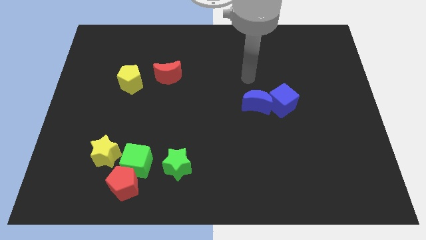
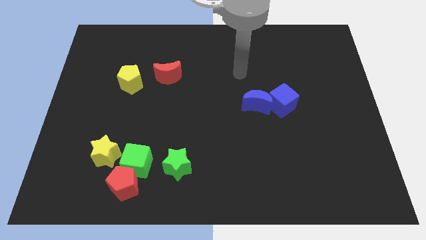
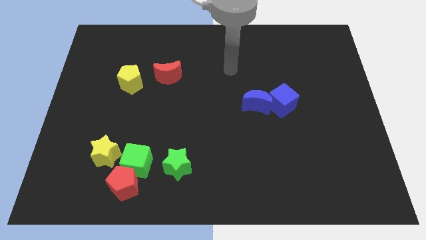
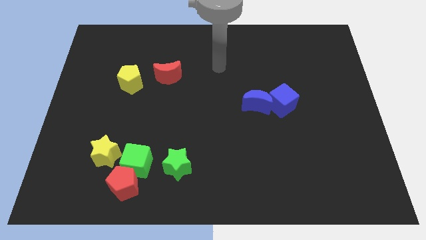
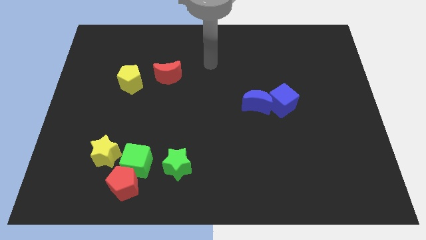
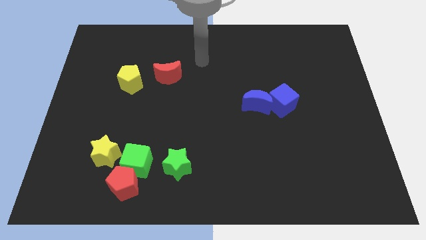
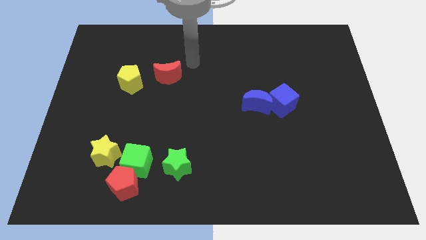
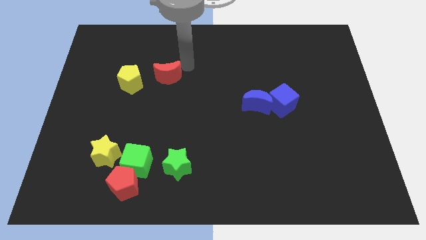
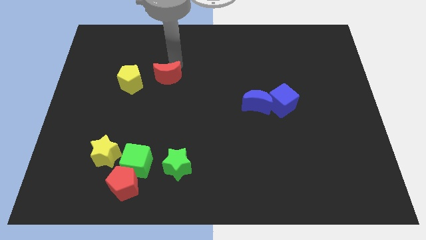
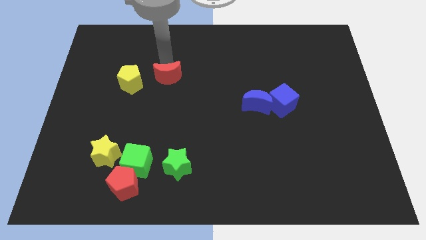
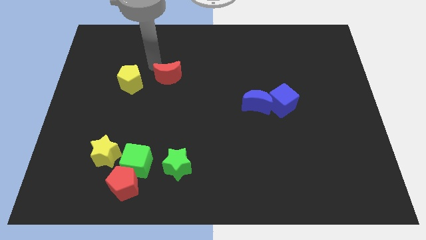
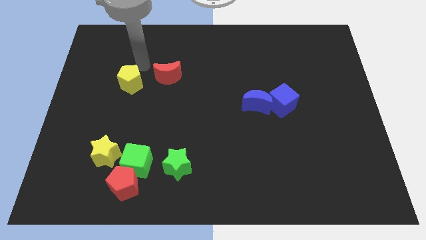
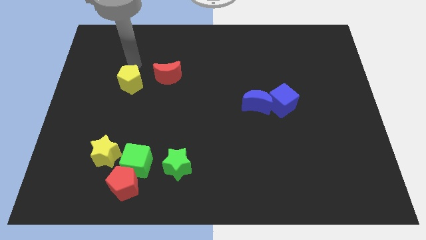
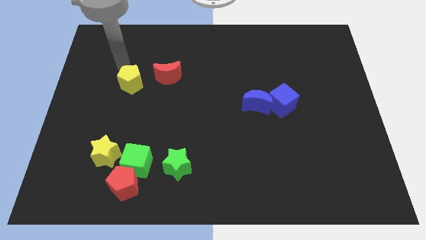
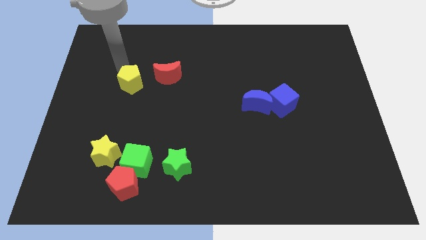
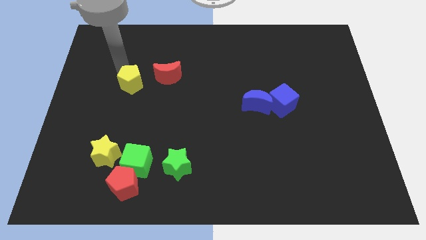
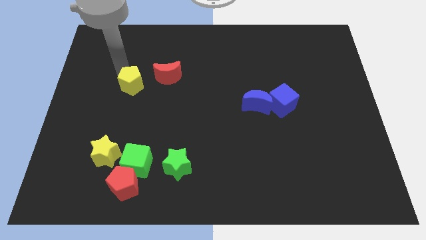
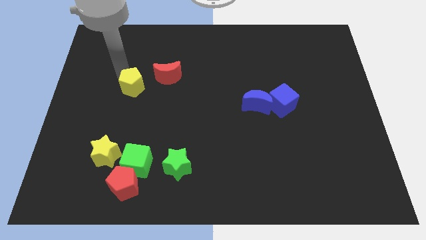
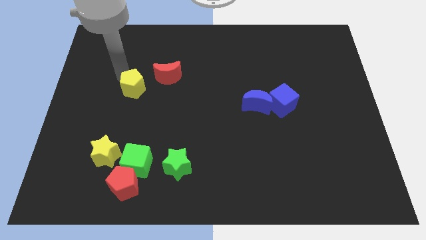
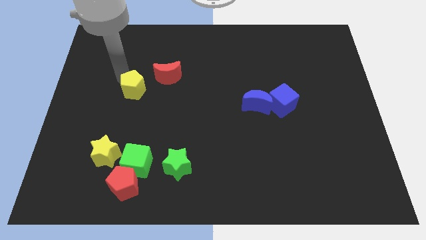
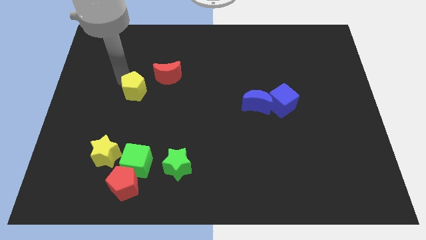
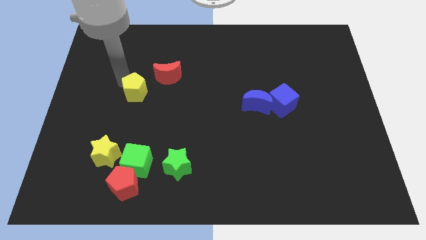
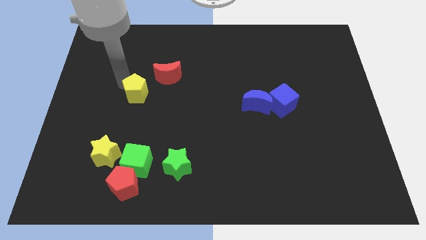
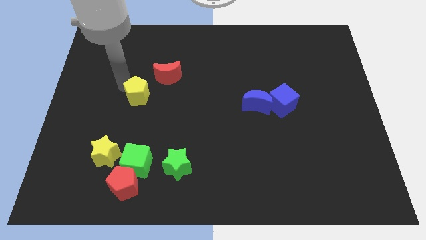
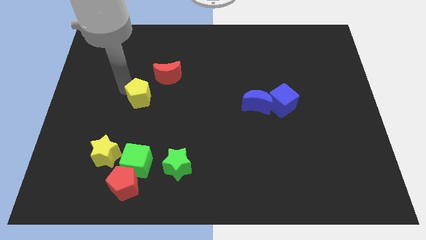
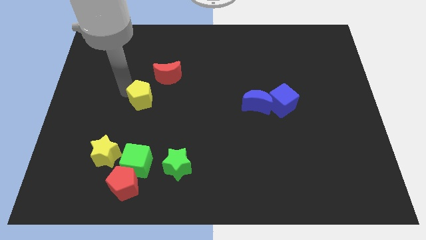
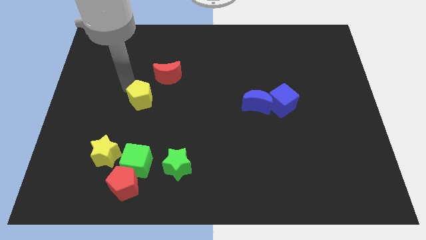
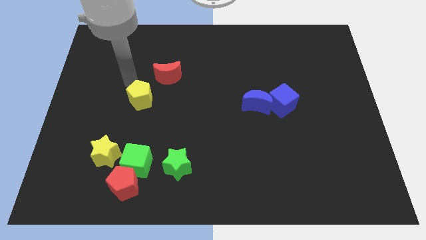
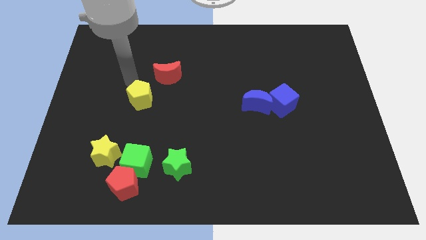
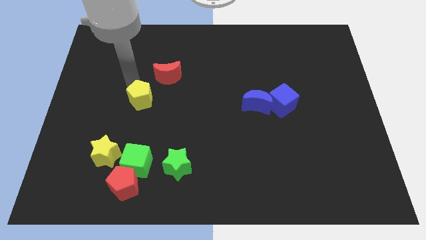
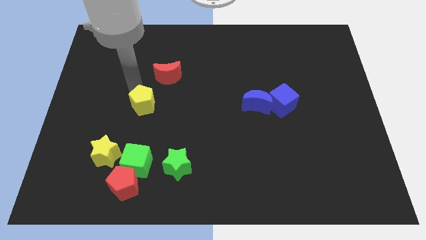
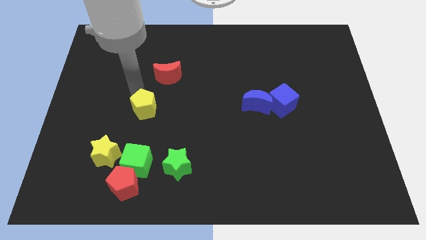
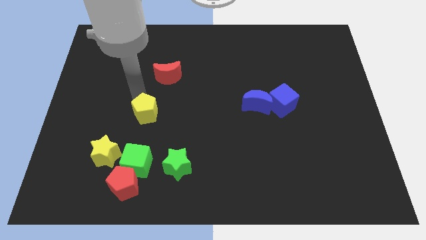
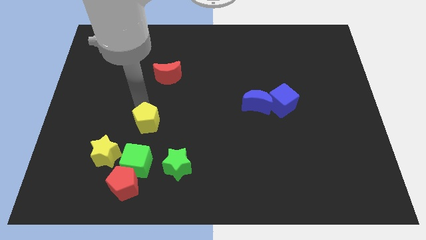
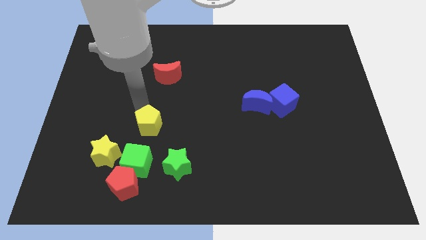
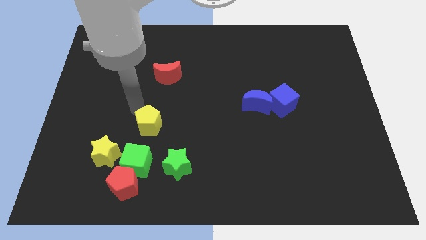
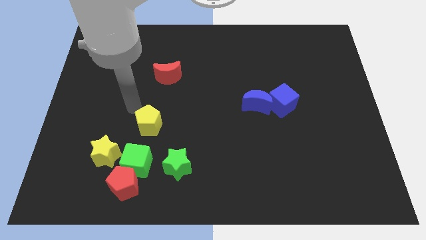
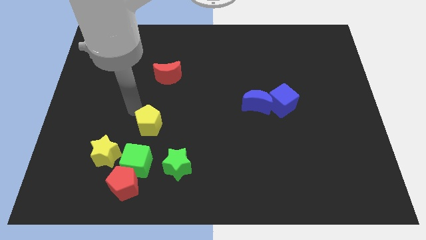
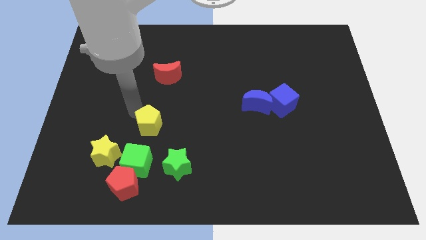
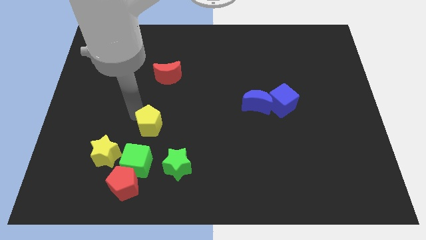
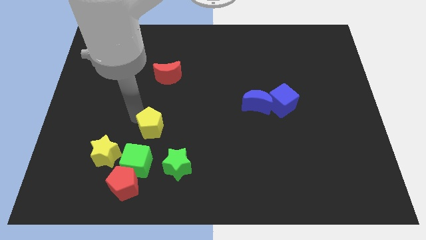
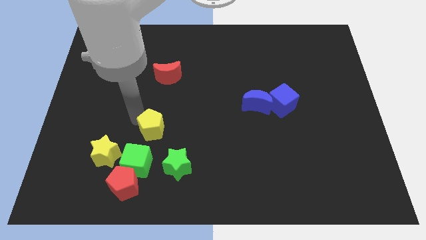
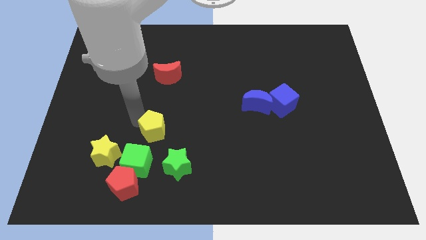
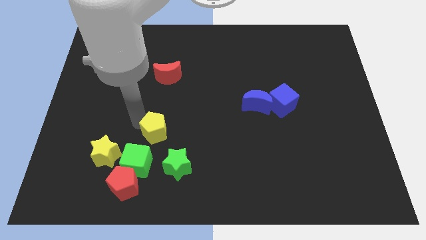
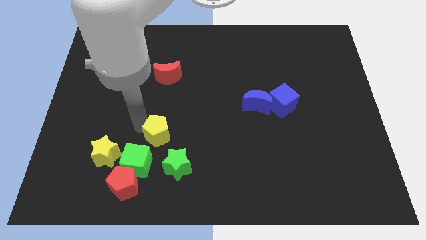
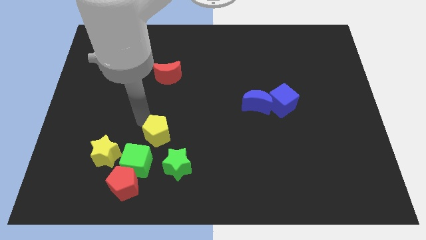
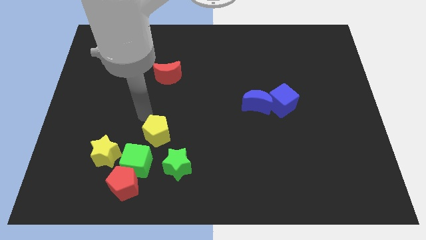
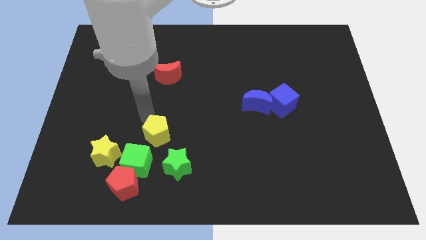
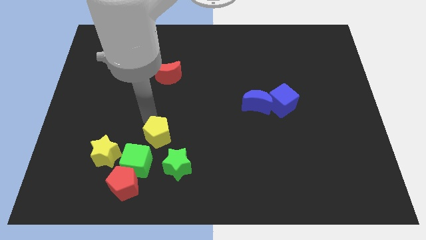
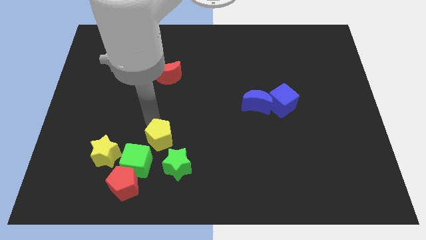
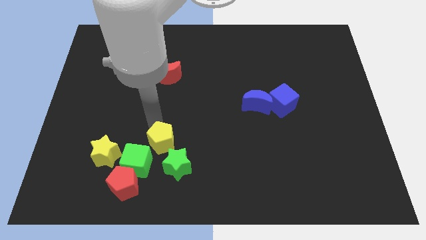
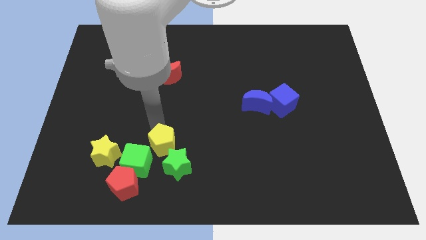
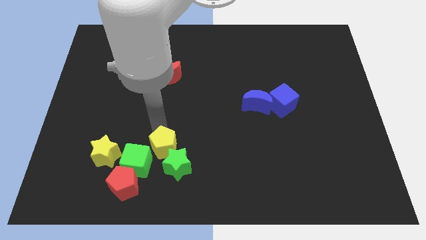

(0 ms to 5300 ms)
slide the yellow pentagon to the green star

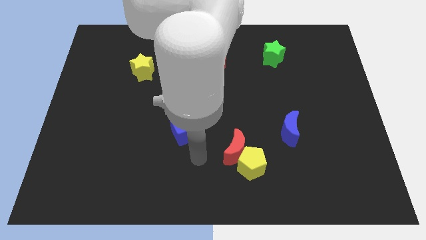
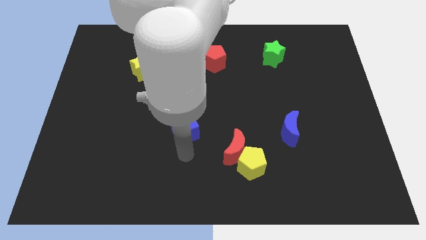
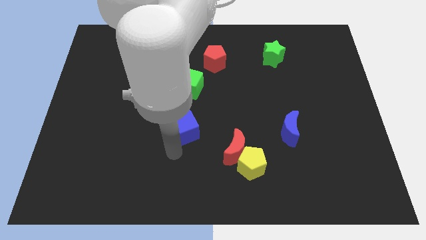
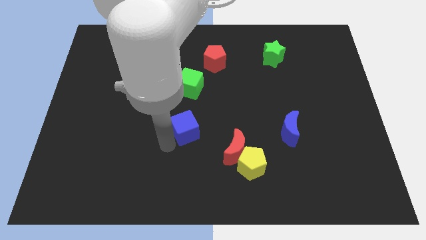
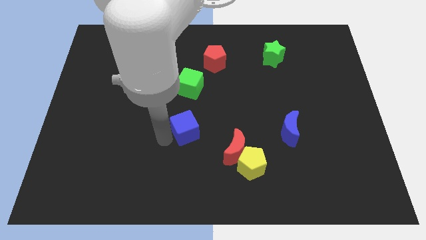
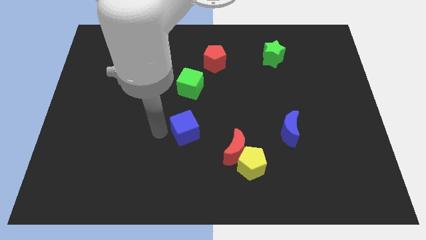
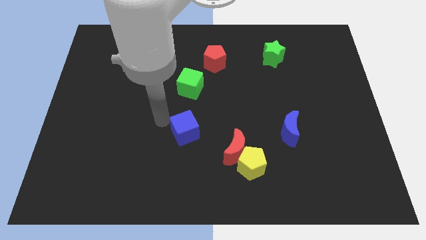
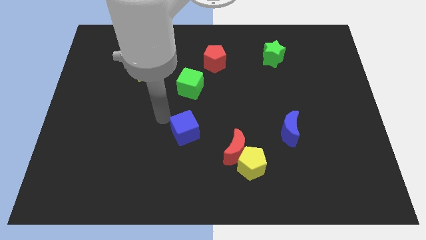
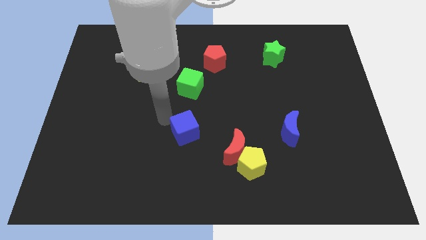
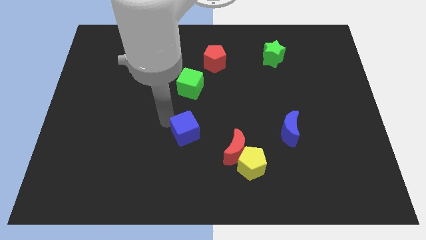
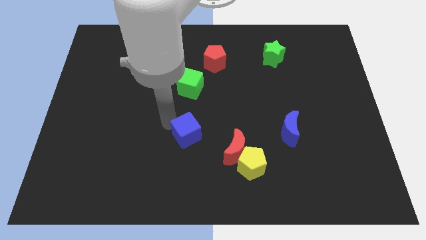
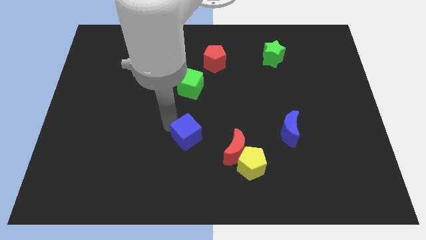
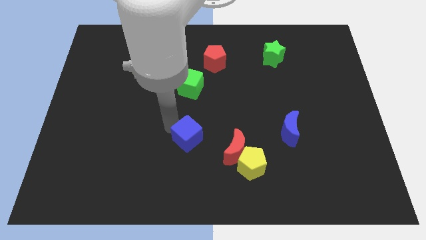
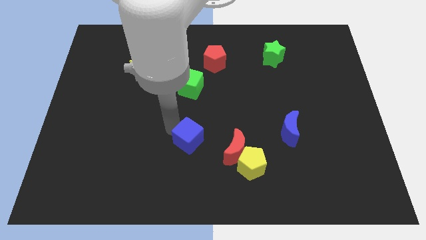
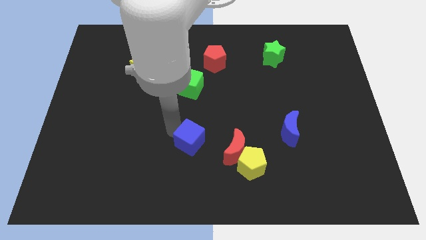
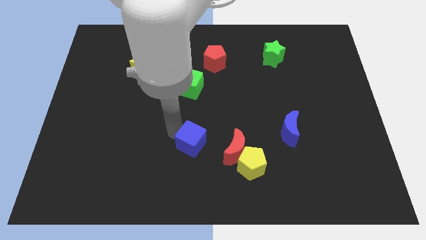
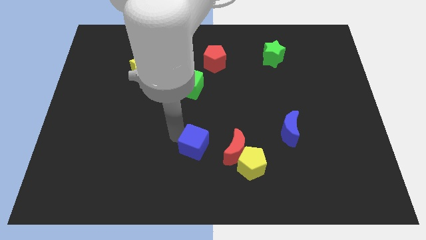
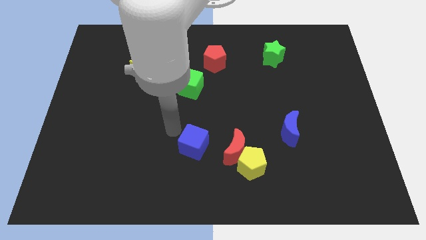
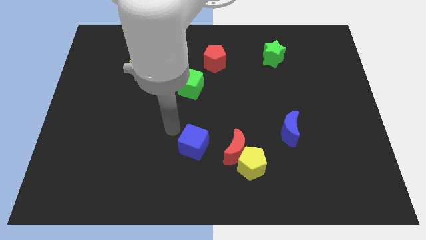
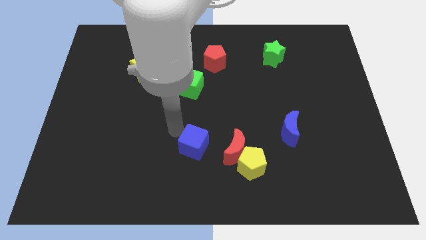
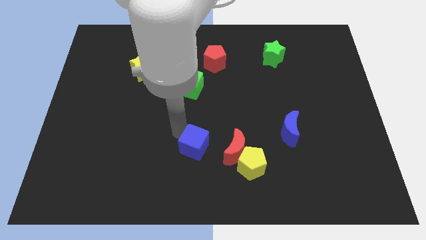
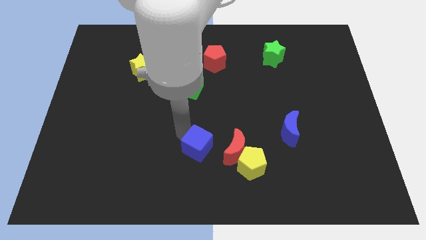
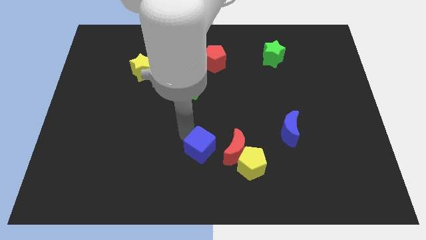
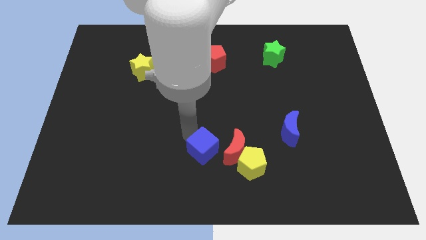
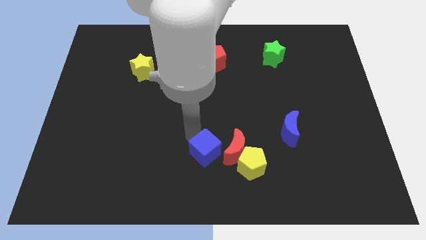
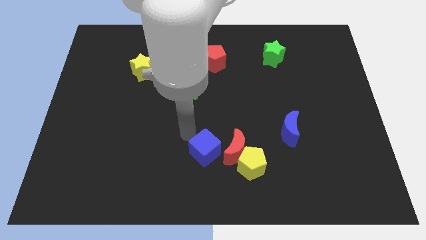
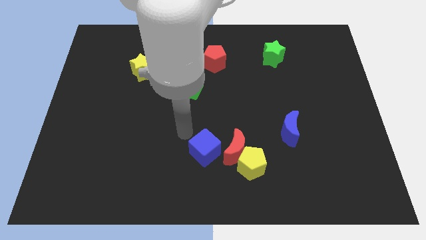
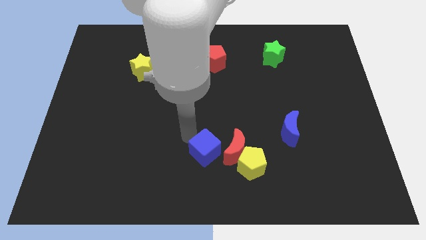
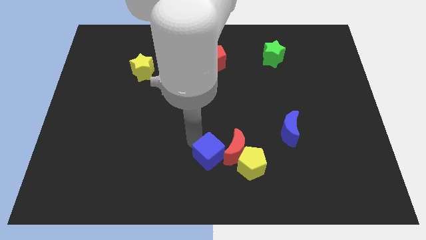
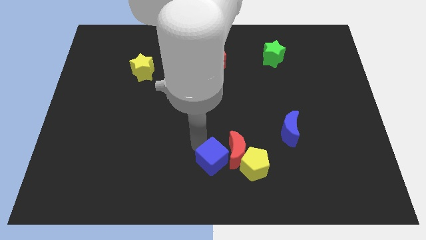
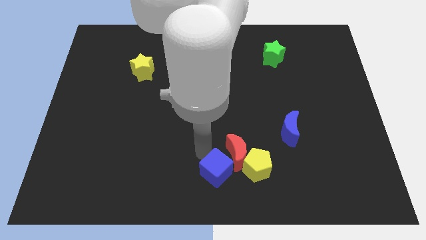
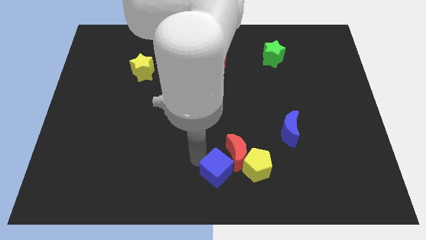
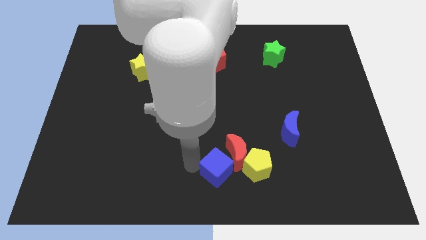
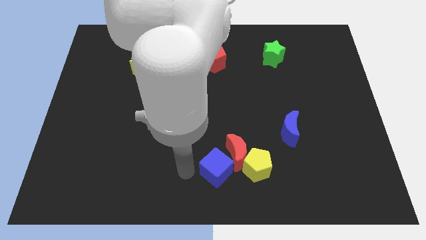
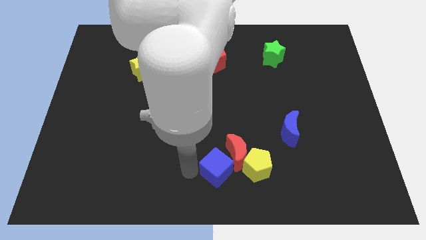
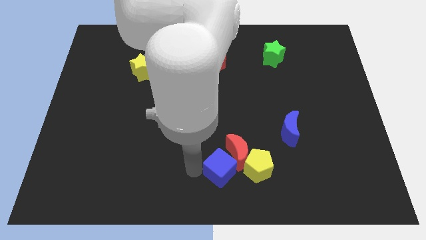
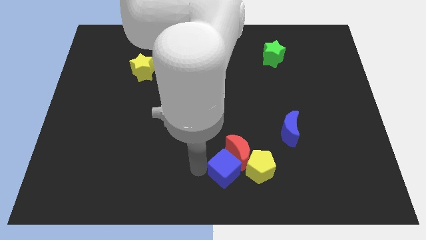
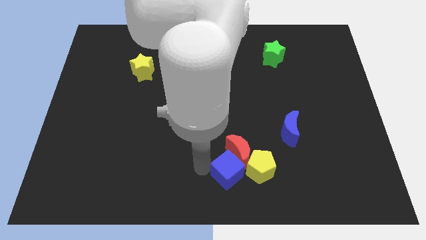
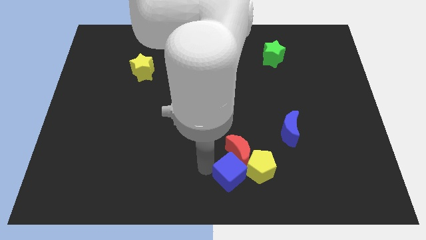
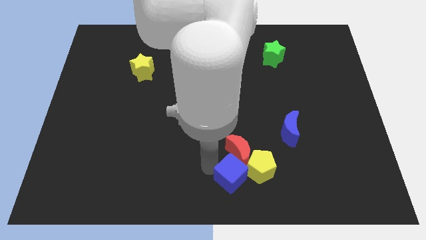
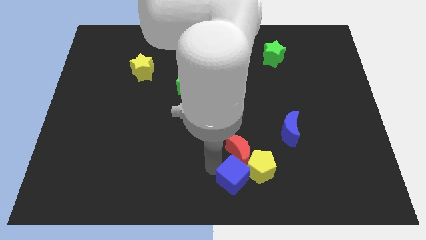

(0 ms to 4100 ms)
slide the blue cube towards the yellow pentagon
